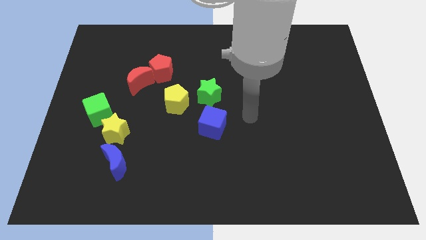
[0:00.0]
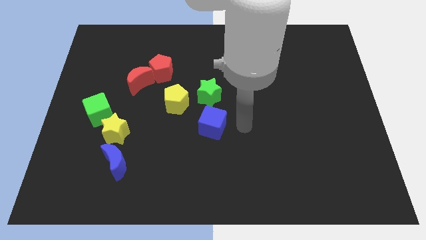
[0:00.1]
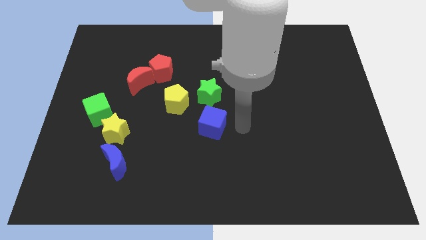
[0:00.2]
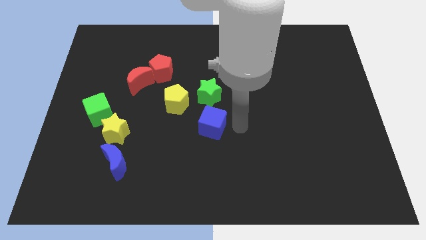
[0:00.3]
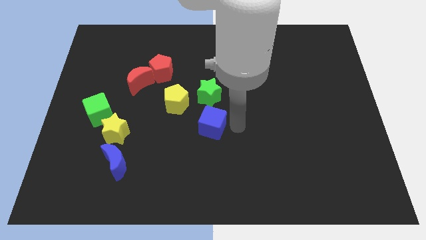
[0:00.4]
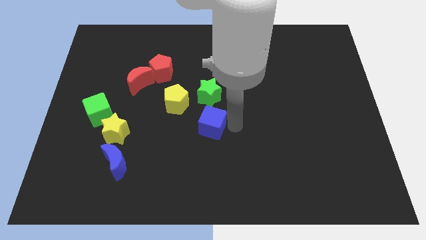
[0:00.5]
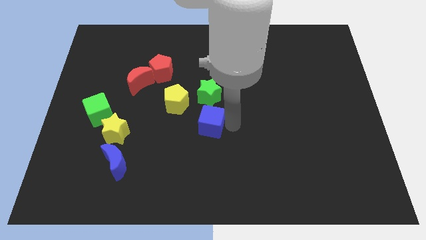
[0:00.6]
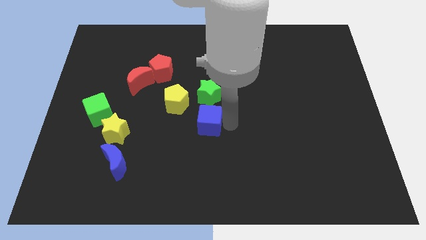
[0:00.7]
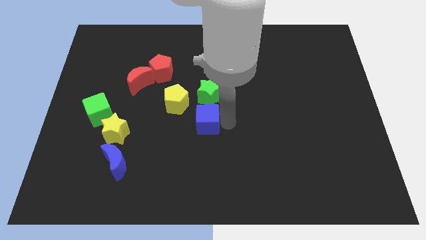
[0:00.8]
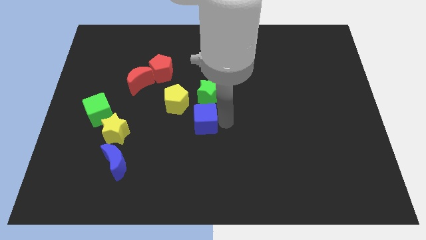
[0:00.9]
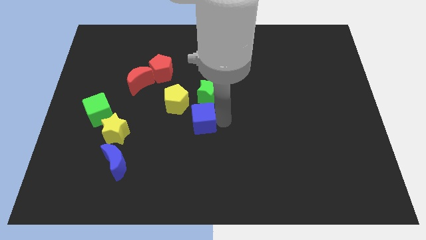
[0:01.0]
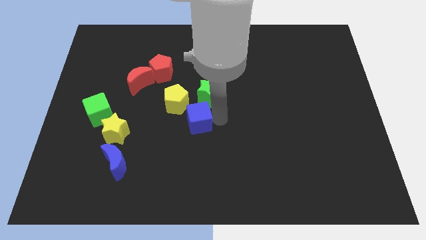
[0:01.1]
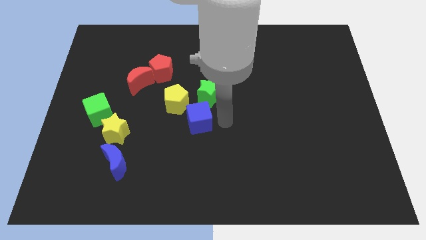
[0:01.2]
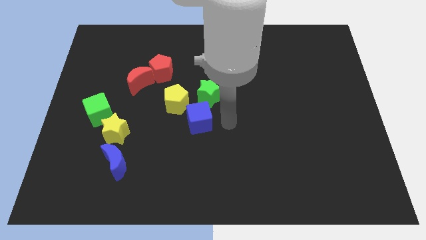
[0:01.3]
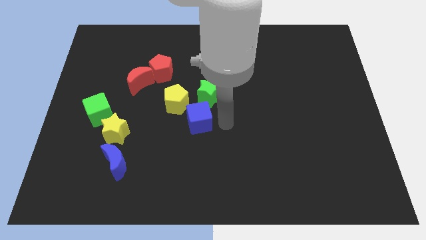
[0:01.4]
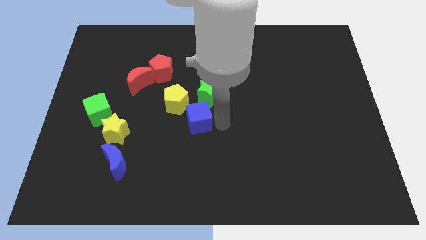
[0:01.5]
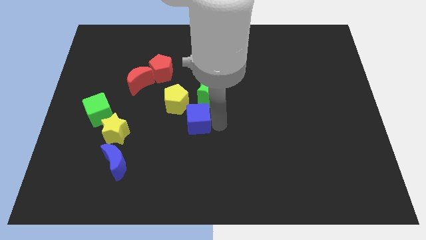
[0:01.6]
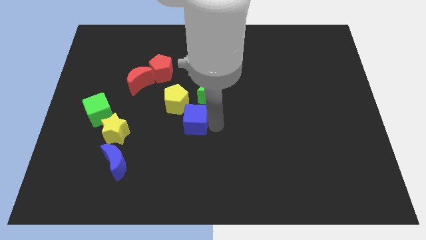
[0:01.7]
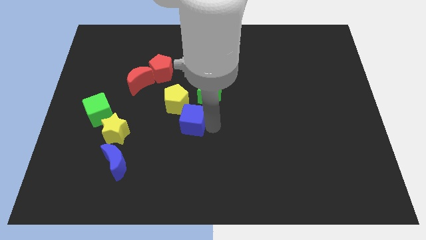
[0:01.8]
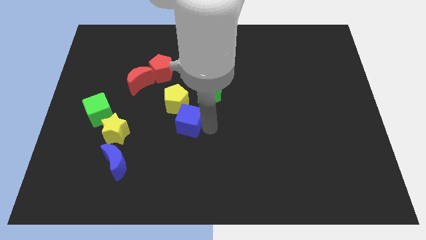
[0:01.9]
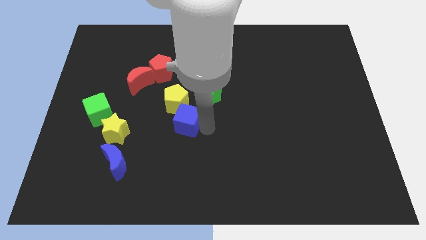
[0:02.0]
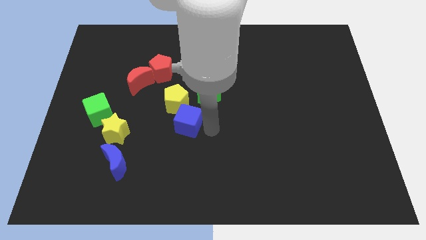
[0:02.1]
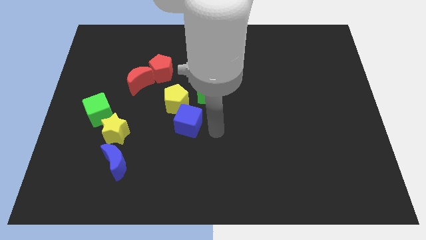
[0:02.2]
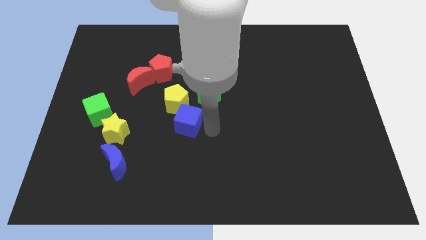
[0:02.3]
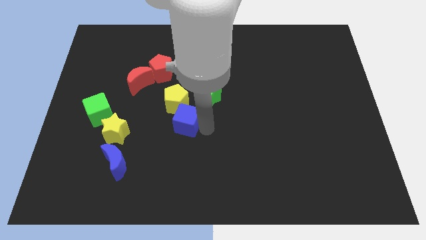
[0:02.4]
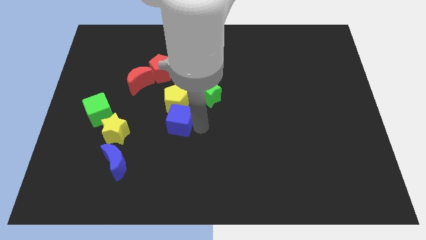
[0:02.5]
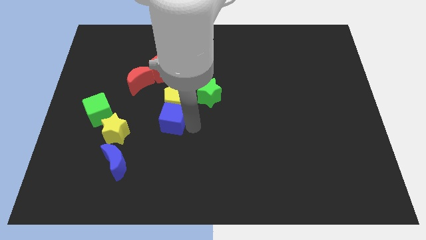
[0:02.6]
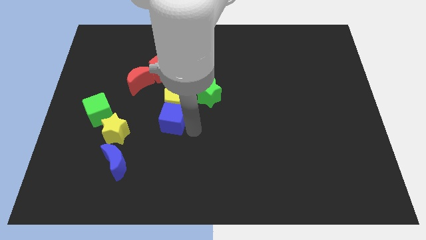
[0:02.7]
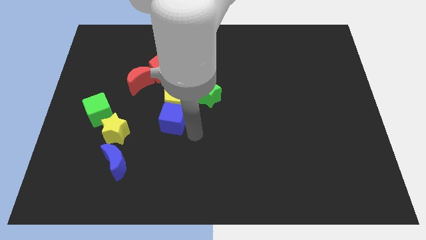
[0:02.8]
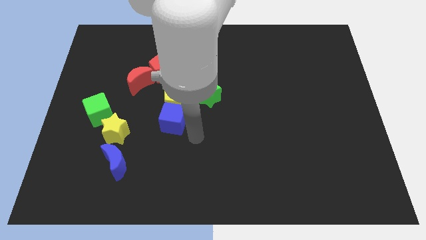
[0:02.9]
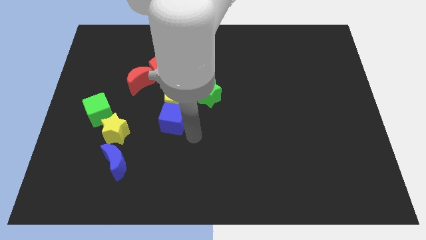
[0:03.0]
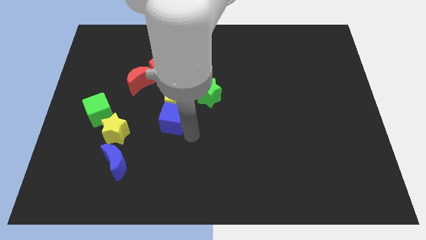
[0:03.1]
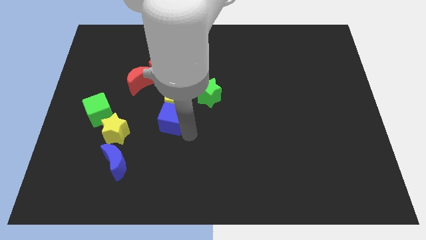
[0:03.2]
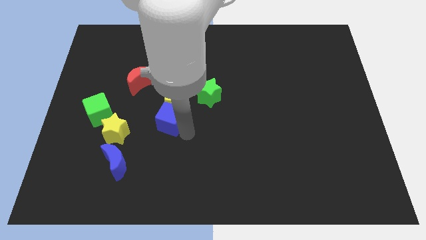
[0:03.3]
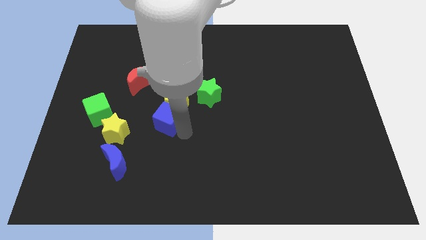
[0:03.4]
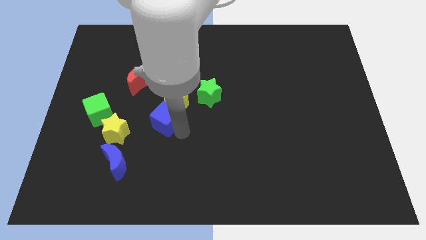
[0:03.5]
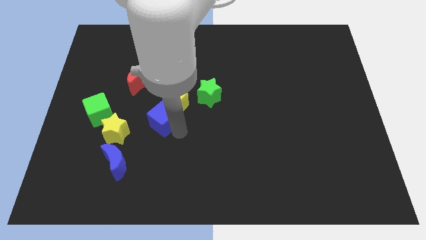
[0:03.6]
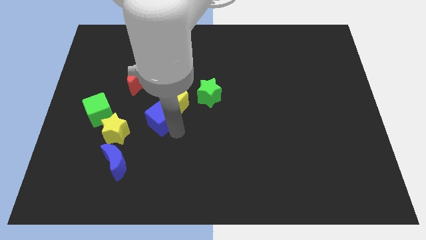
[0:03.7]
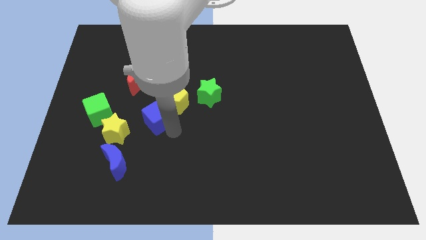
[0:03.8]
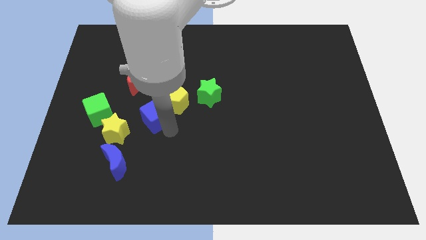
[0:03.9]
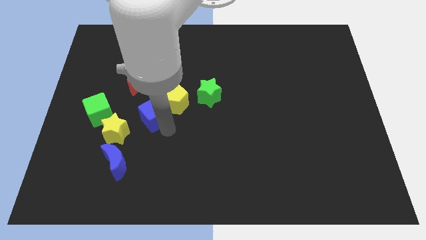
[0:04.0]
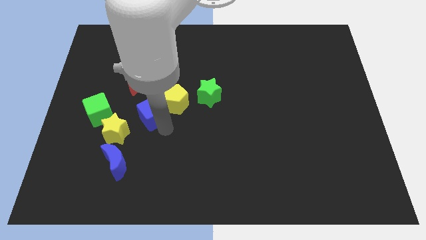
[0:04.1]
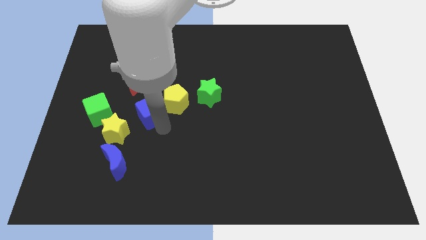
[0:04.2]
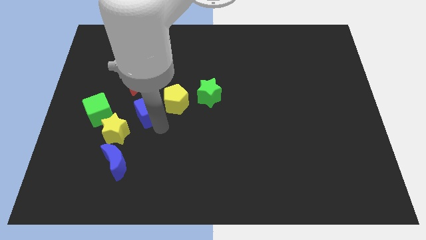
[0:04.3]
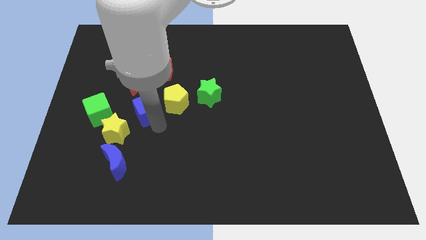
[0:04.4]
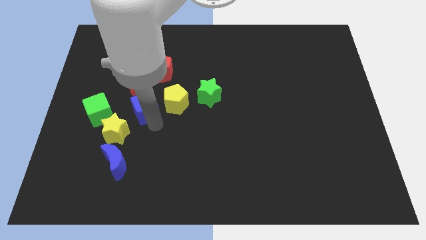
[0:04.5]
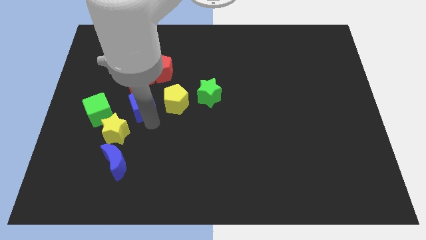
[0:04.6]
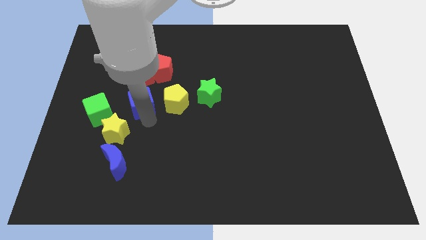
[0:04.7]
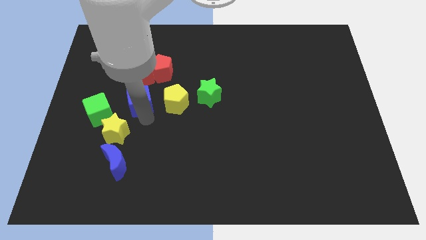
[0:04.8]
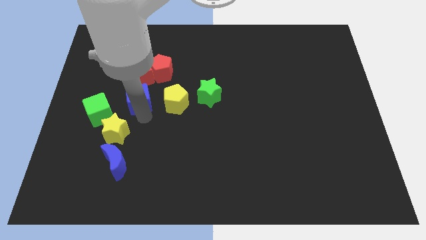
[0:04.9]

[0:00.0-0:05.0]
put the blue cube next to the red moon

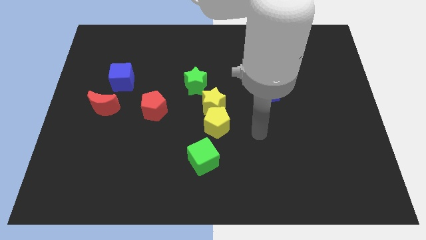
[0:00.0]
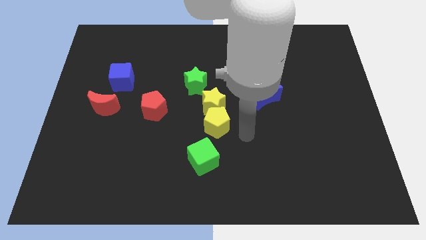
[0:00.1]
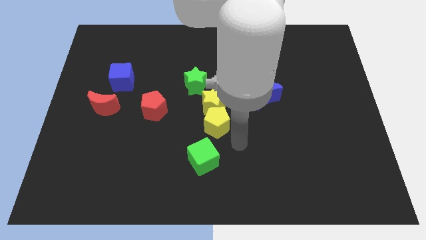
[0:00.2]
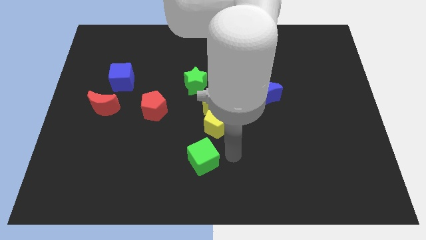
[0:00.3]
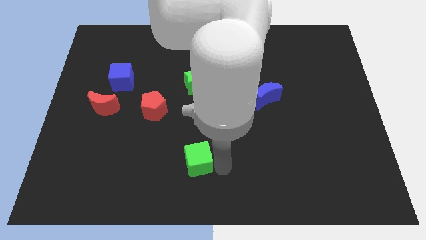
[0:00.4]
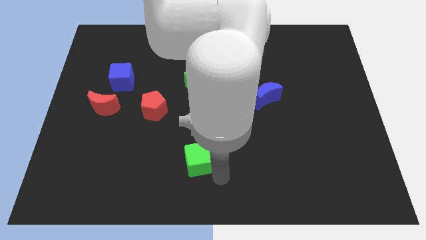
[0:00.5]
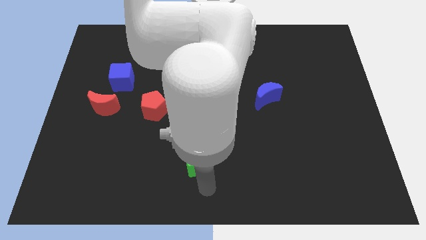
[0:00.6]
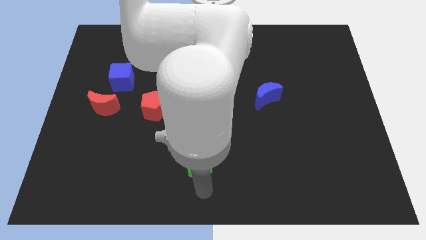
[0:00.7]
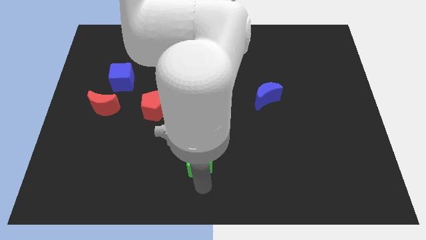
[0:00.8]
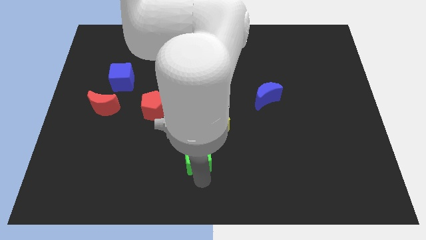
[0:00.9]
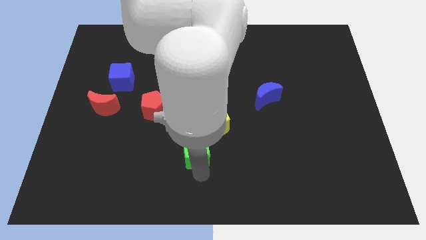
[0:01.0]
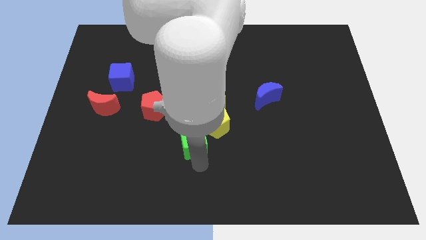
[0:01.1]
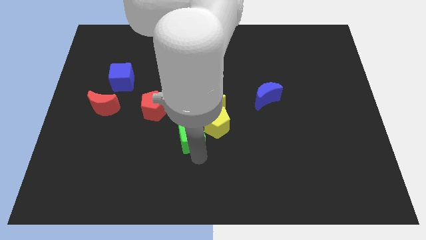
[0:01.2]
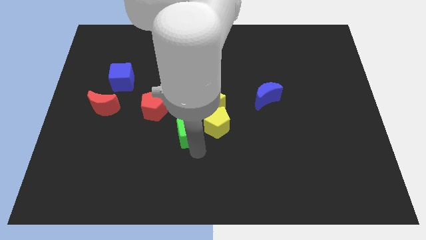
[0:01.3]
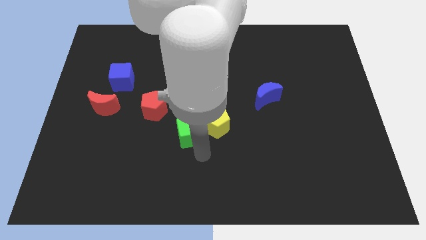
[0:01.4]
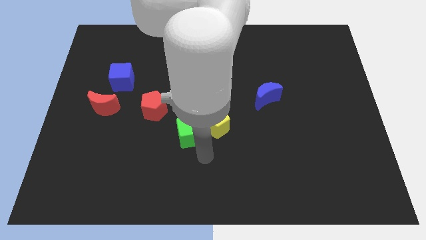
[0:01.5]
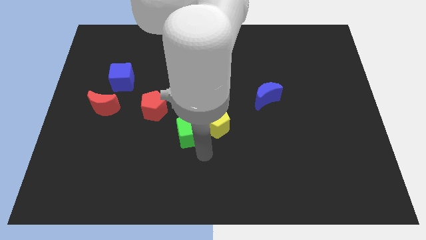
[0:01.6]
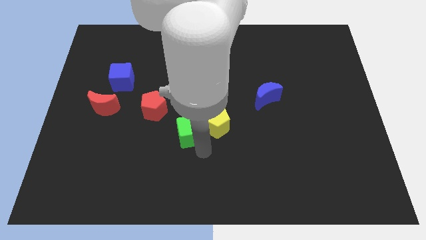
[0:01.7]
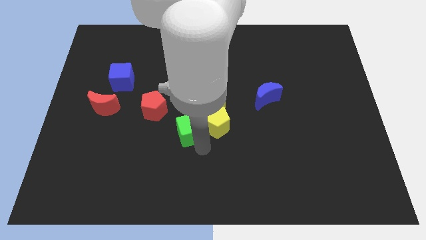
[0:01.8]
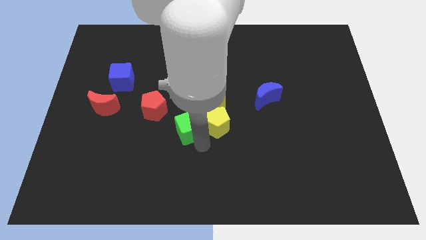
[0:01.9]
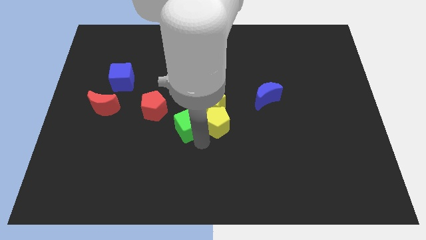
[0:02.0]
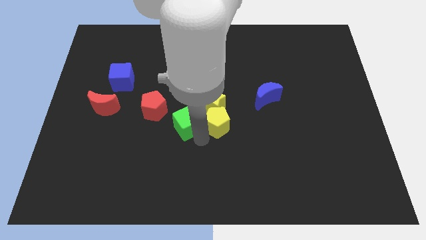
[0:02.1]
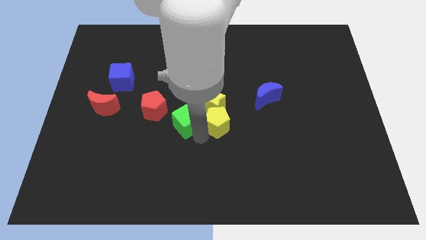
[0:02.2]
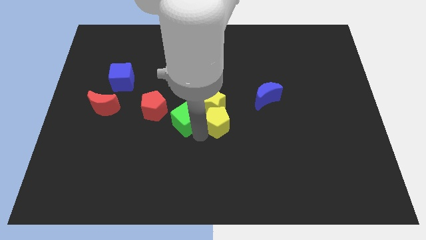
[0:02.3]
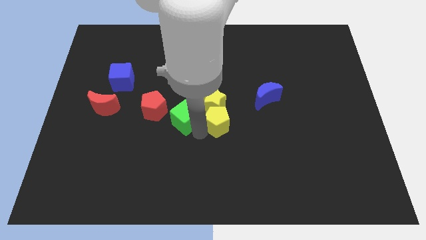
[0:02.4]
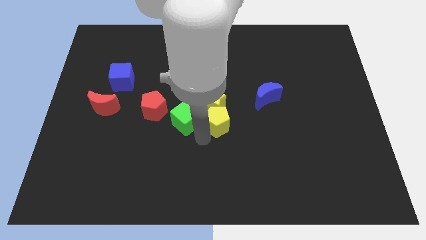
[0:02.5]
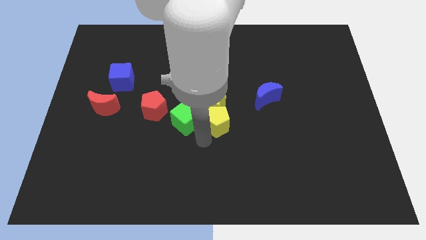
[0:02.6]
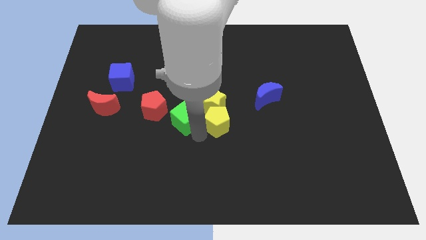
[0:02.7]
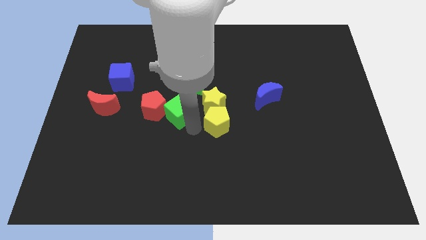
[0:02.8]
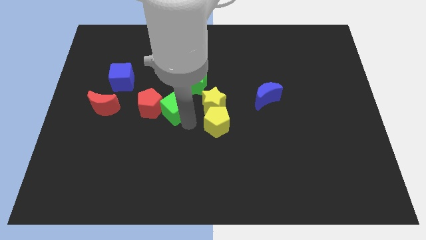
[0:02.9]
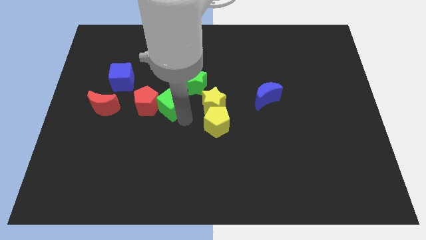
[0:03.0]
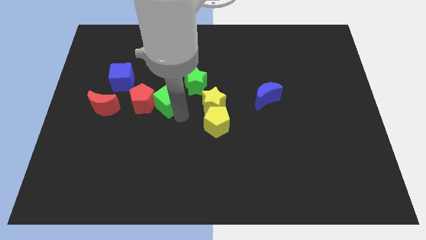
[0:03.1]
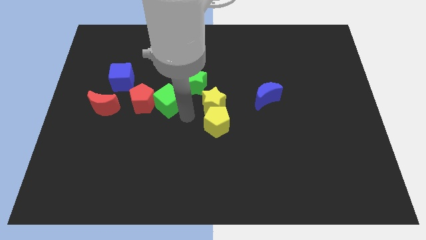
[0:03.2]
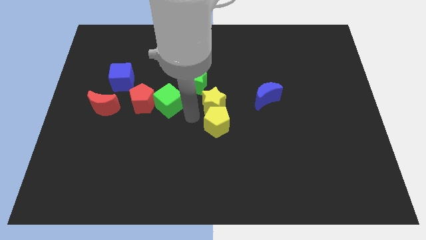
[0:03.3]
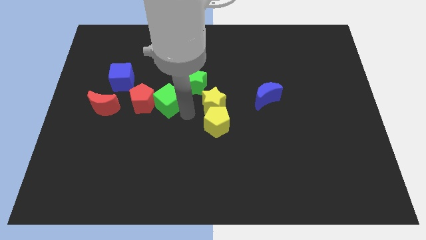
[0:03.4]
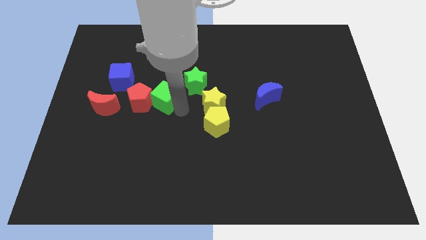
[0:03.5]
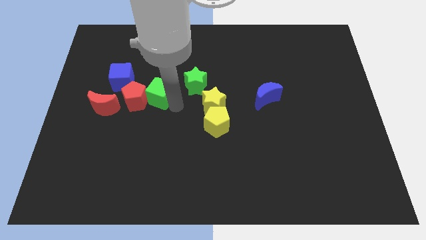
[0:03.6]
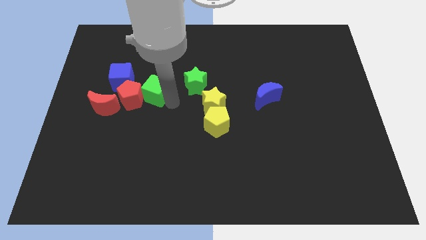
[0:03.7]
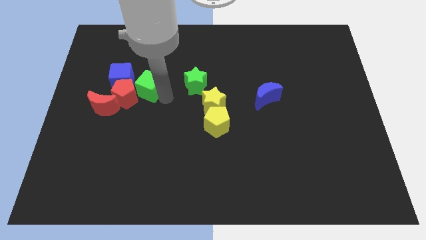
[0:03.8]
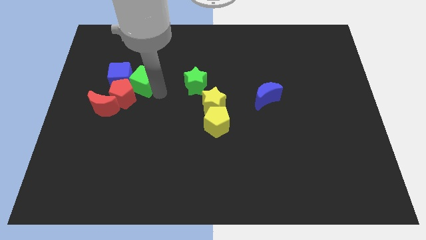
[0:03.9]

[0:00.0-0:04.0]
put the green cube to the blue cube
